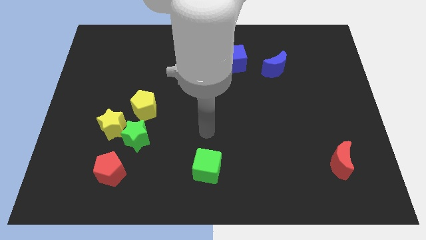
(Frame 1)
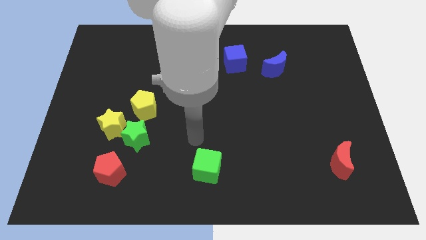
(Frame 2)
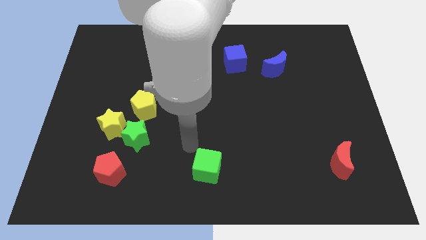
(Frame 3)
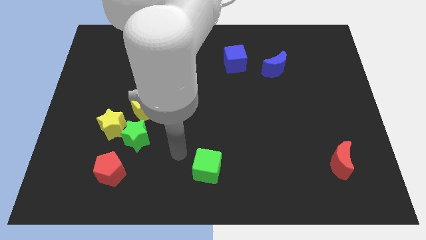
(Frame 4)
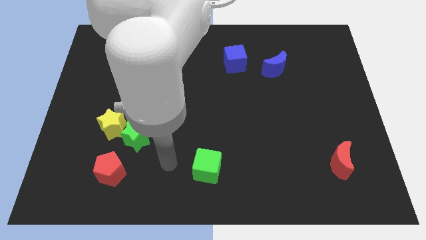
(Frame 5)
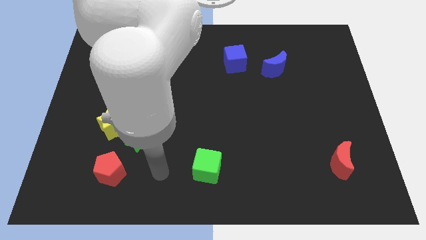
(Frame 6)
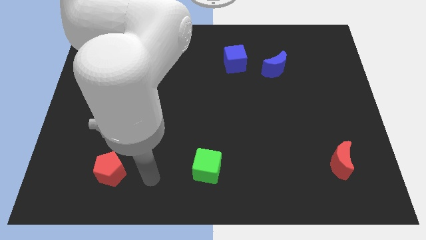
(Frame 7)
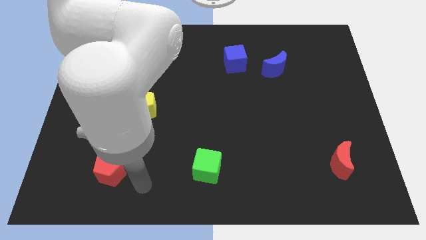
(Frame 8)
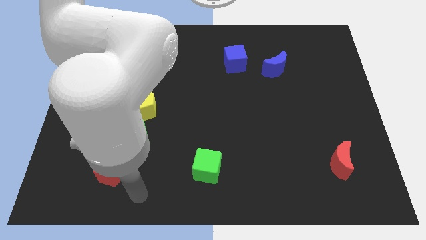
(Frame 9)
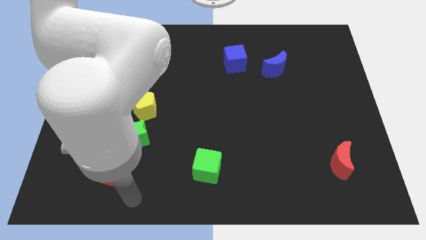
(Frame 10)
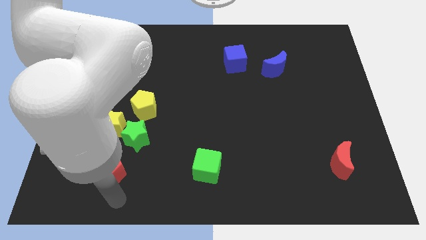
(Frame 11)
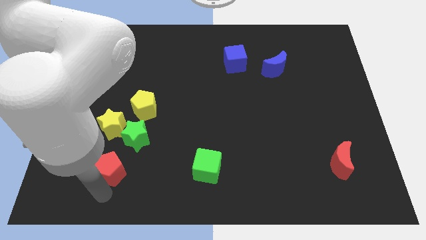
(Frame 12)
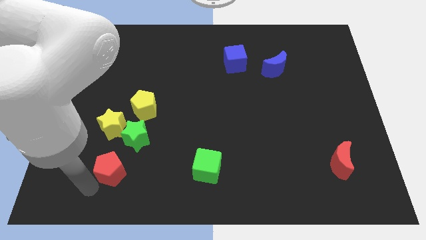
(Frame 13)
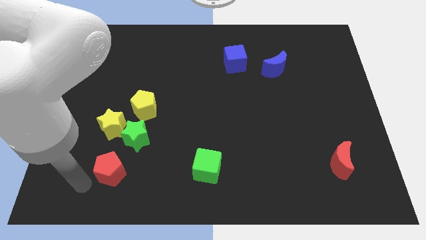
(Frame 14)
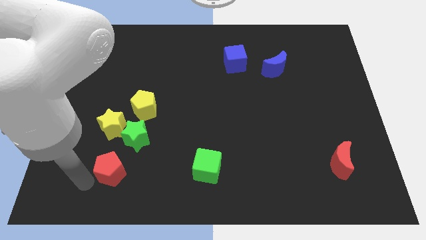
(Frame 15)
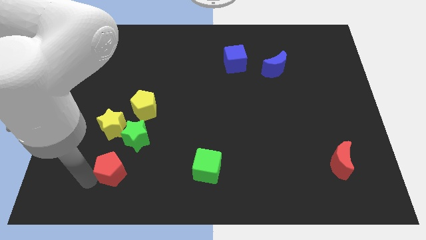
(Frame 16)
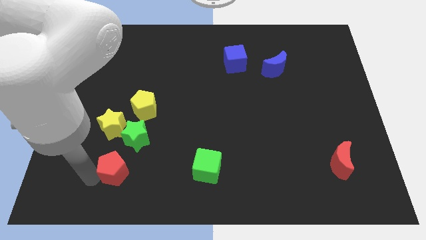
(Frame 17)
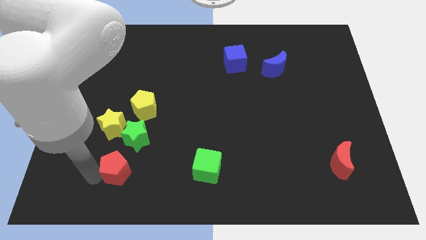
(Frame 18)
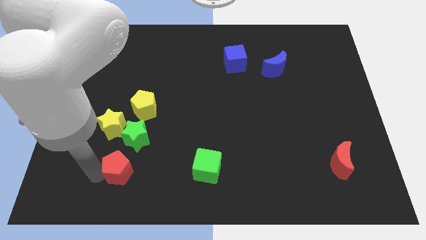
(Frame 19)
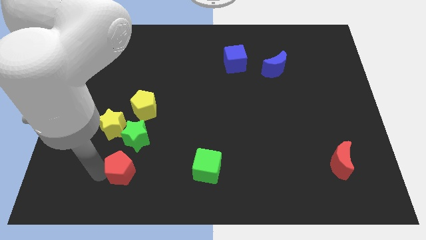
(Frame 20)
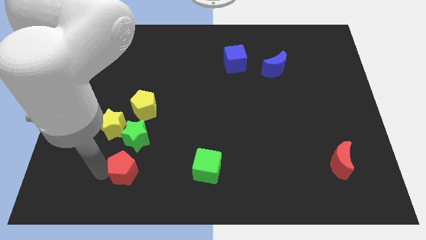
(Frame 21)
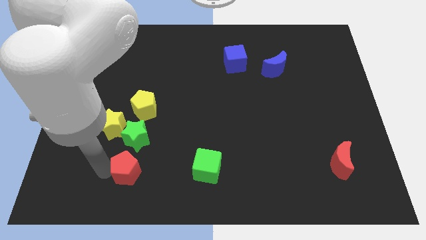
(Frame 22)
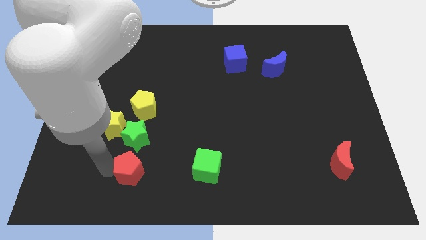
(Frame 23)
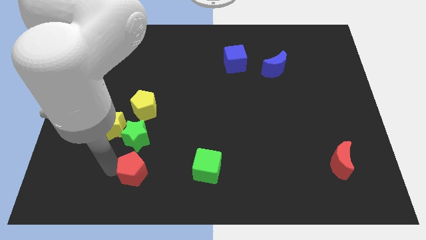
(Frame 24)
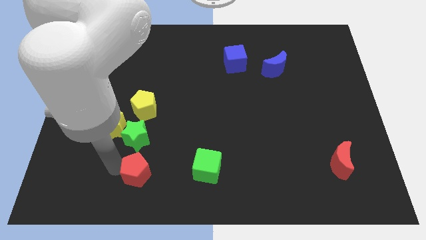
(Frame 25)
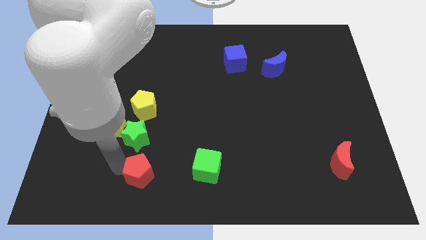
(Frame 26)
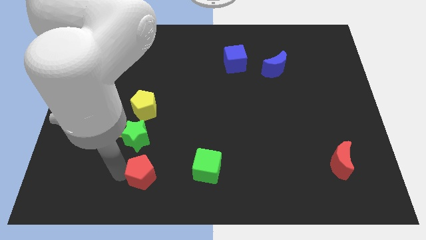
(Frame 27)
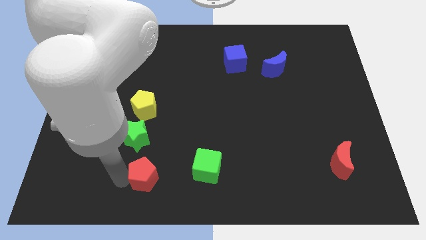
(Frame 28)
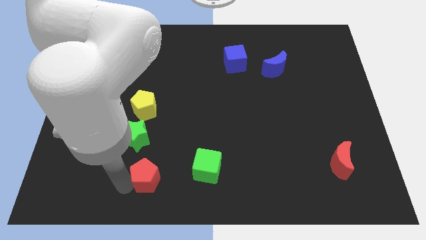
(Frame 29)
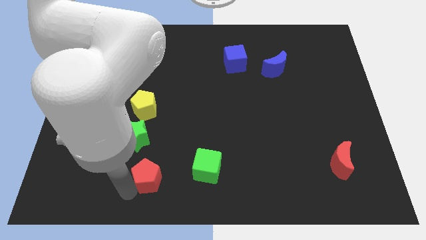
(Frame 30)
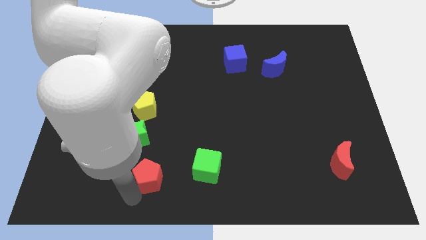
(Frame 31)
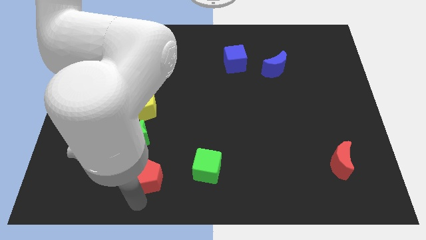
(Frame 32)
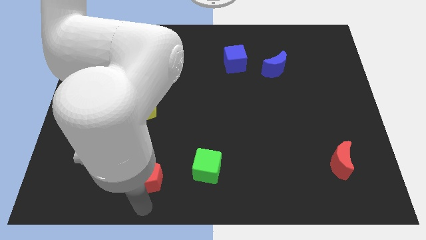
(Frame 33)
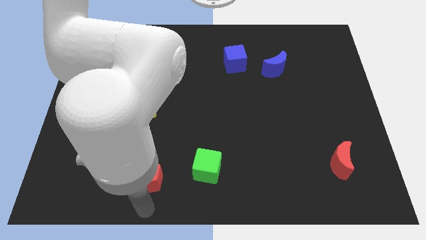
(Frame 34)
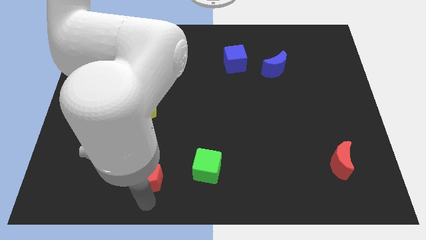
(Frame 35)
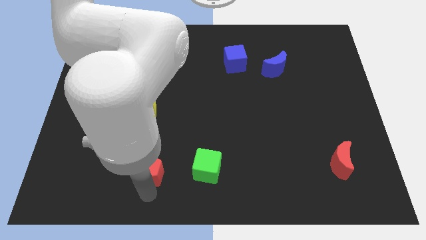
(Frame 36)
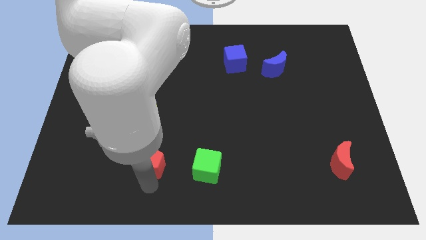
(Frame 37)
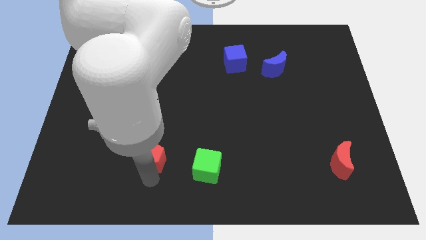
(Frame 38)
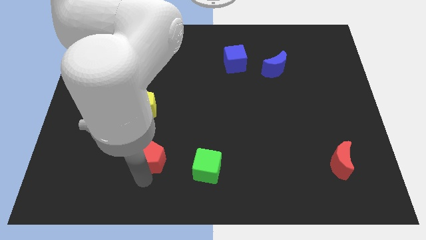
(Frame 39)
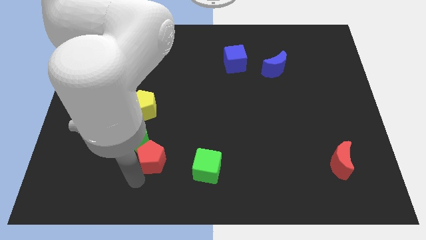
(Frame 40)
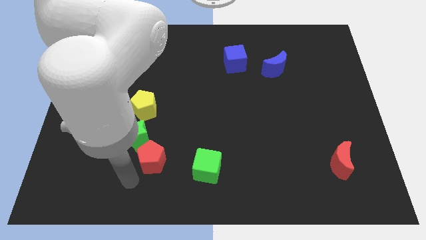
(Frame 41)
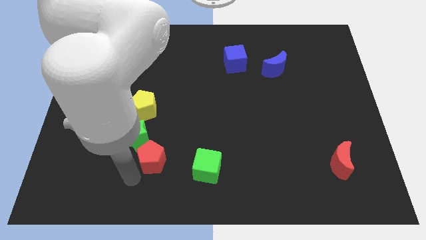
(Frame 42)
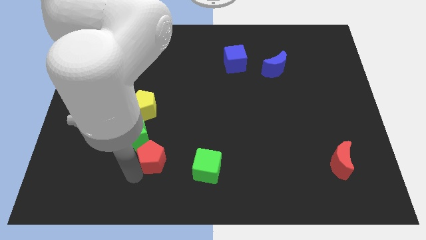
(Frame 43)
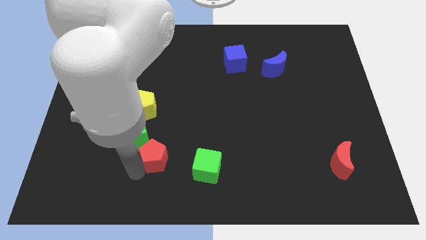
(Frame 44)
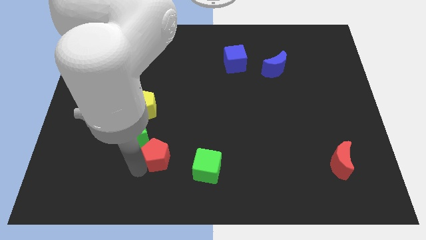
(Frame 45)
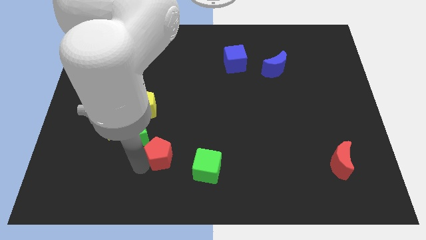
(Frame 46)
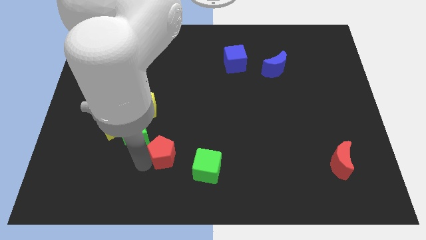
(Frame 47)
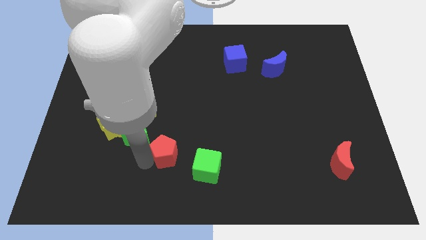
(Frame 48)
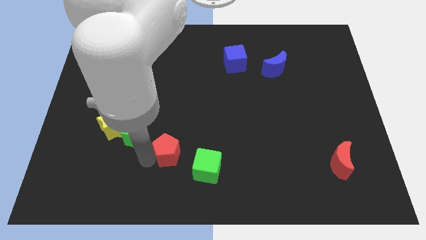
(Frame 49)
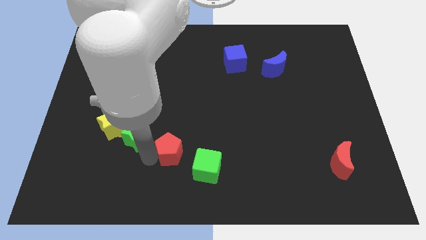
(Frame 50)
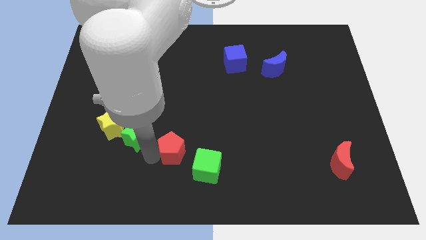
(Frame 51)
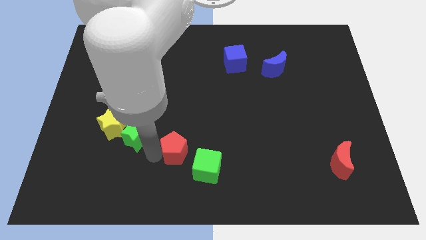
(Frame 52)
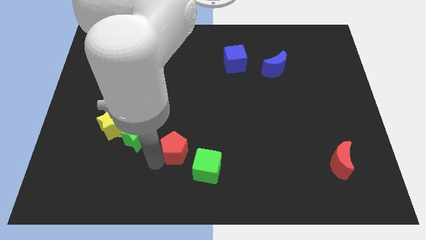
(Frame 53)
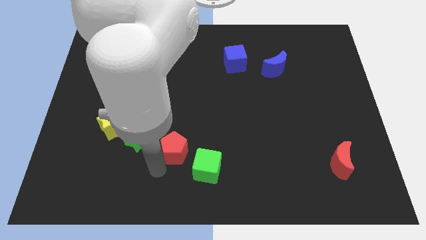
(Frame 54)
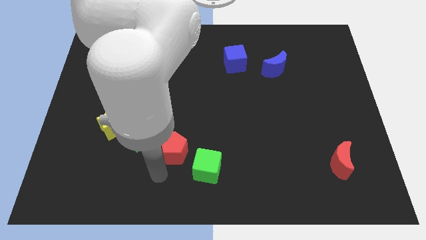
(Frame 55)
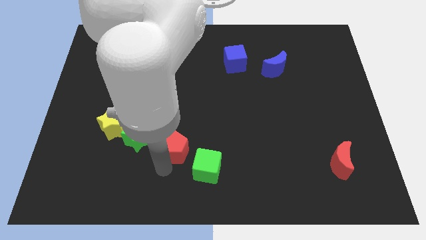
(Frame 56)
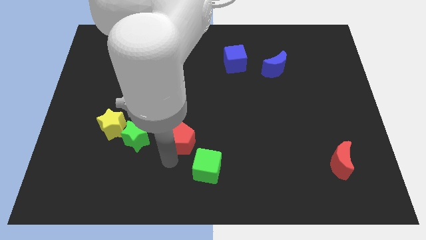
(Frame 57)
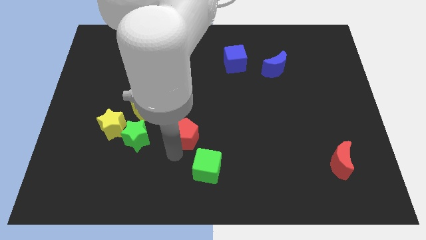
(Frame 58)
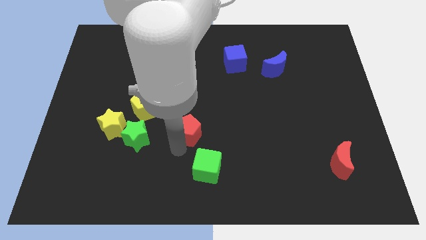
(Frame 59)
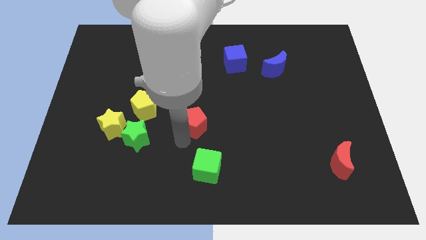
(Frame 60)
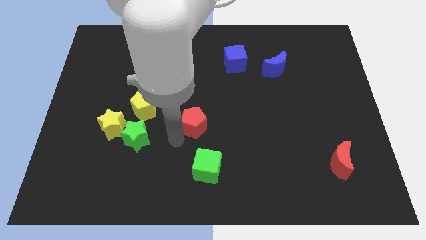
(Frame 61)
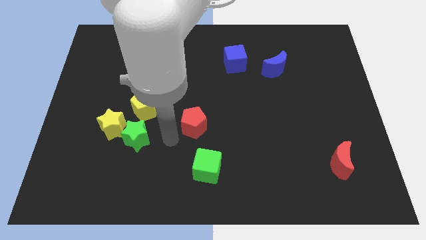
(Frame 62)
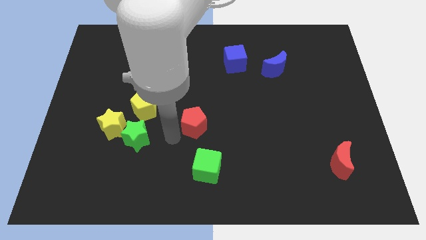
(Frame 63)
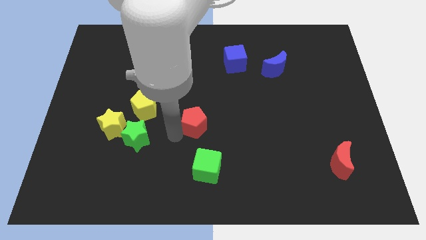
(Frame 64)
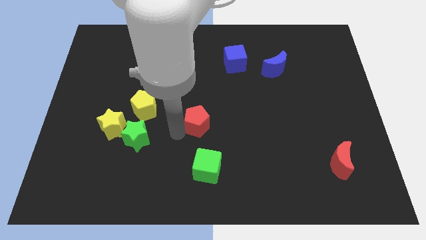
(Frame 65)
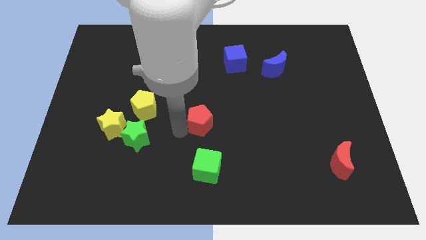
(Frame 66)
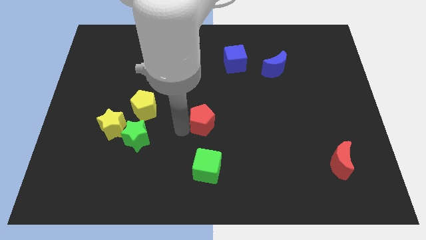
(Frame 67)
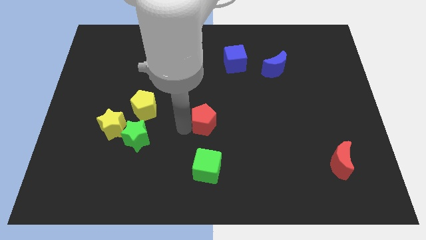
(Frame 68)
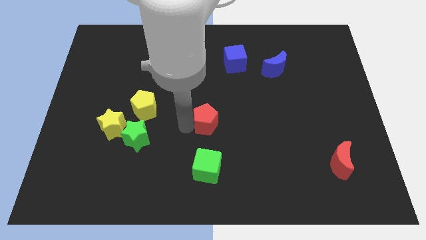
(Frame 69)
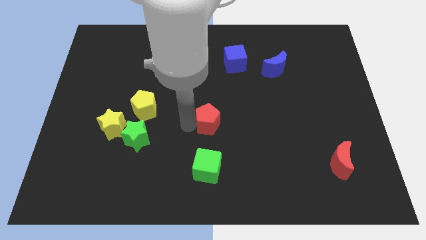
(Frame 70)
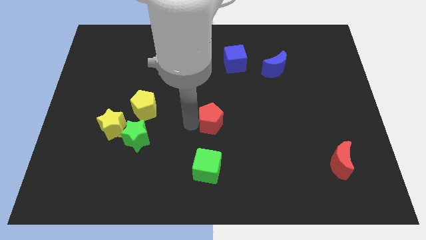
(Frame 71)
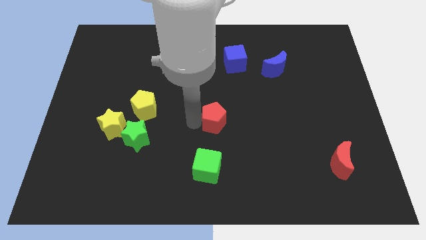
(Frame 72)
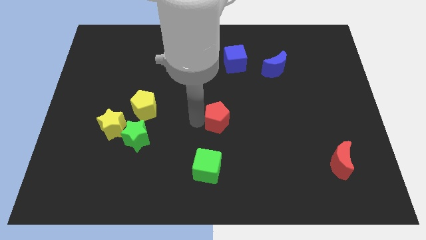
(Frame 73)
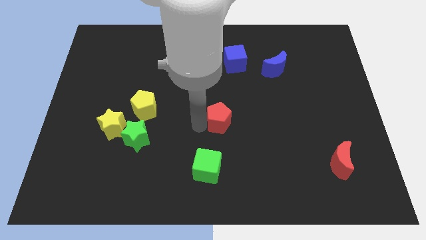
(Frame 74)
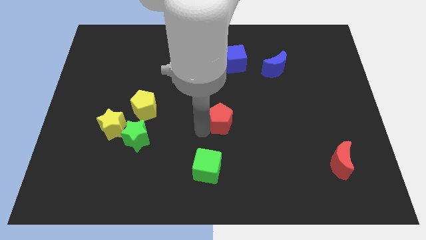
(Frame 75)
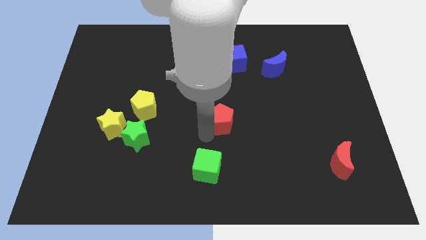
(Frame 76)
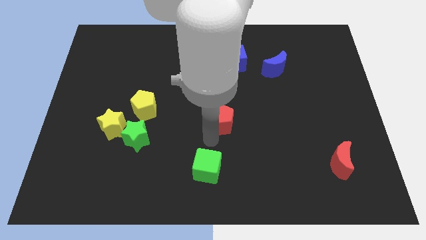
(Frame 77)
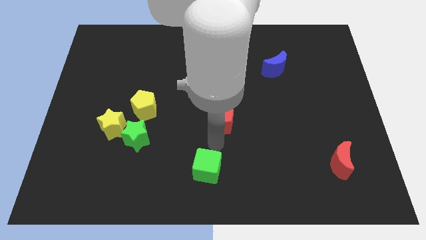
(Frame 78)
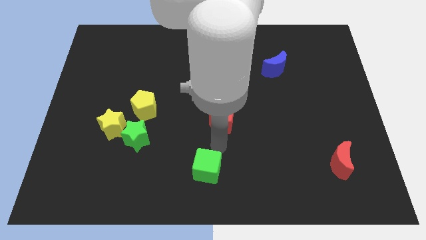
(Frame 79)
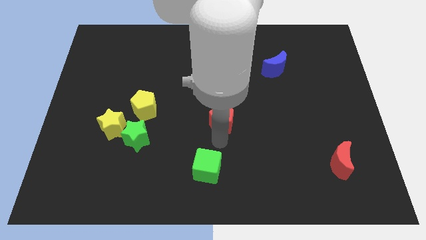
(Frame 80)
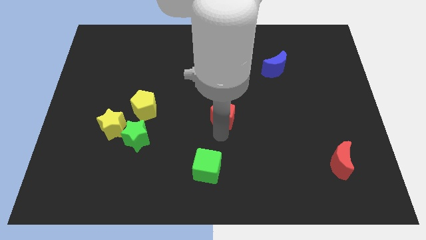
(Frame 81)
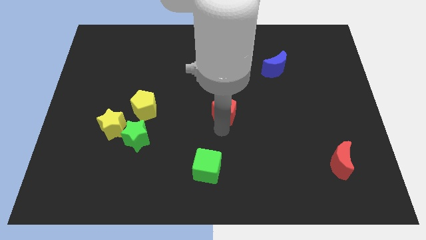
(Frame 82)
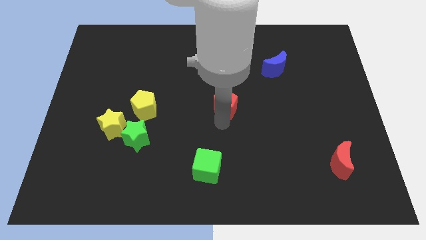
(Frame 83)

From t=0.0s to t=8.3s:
push the red pentagon below the blue cube
